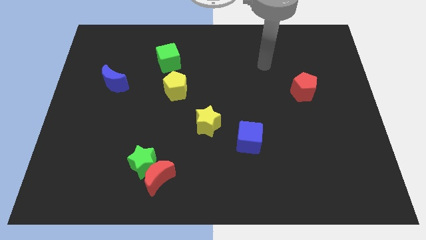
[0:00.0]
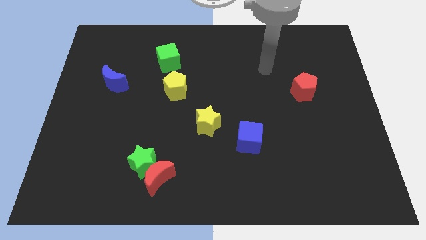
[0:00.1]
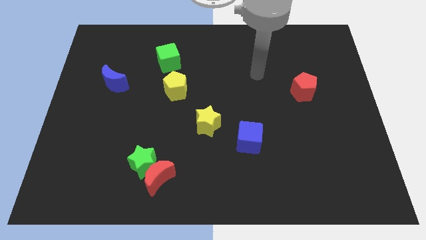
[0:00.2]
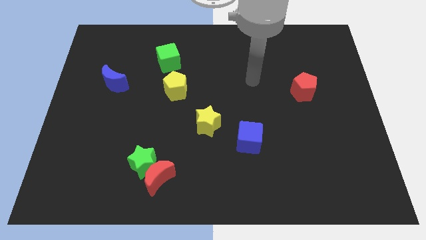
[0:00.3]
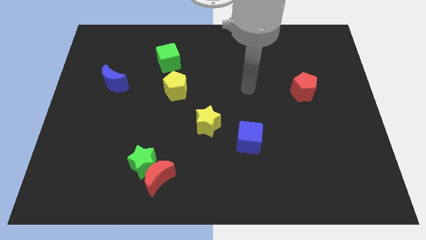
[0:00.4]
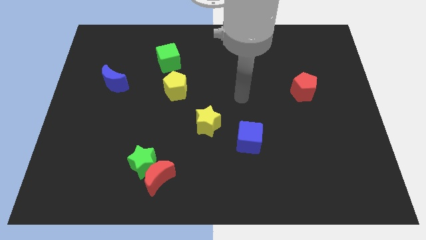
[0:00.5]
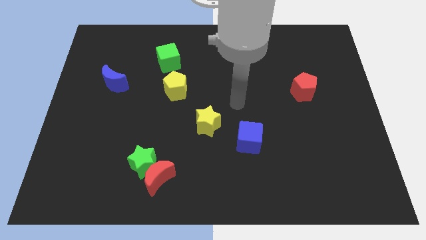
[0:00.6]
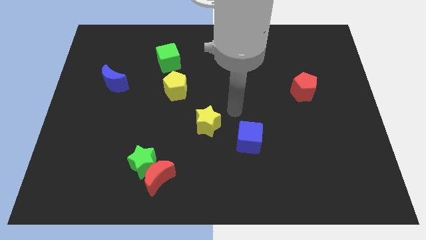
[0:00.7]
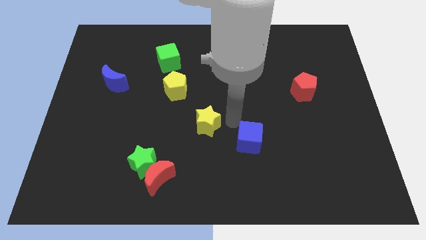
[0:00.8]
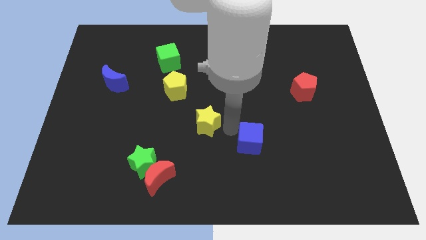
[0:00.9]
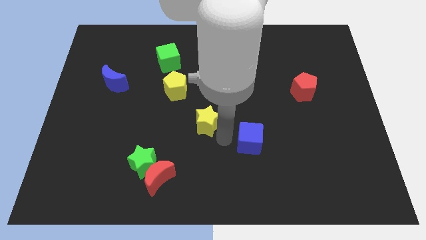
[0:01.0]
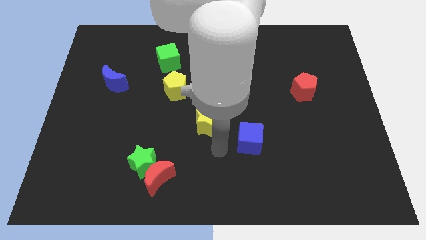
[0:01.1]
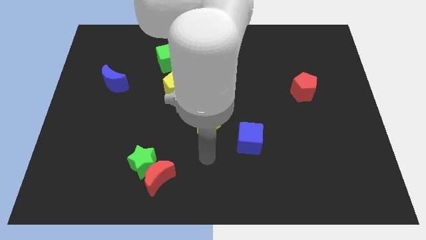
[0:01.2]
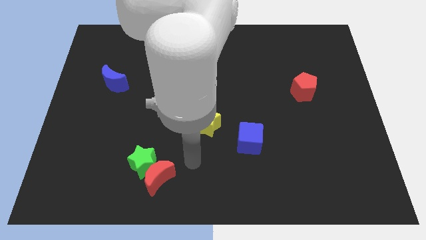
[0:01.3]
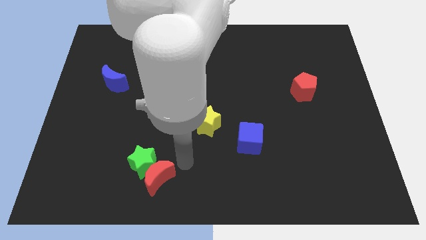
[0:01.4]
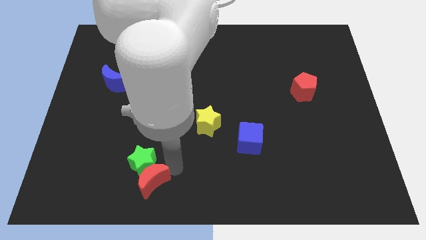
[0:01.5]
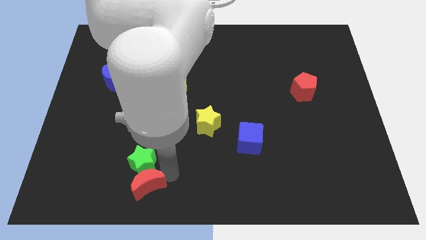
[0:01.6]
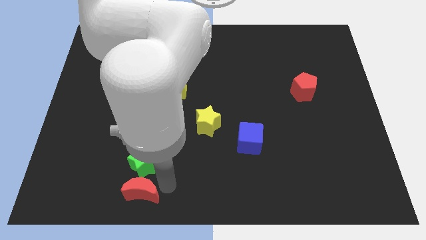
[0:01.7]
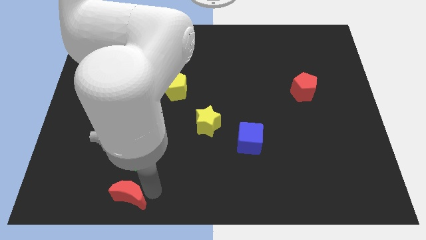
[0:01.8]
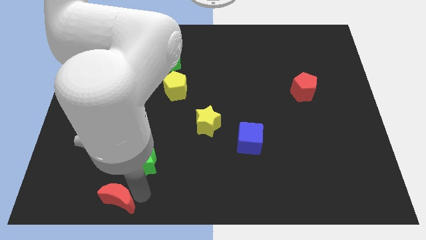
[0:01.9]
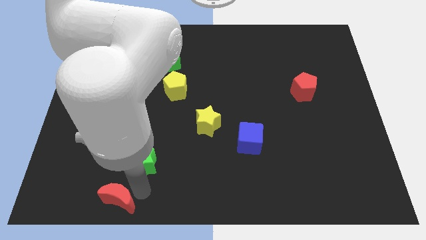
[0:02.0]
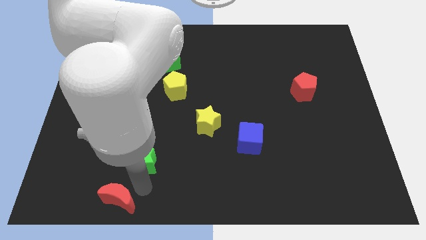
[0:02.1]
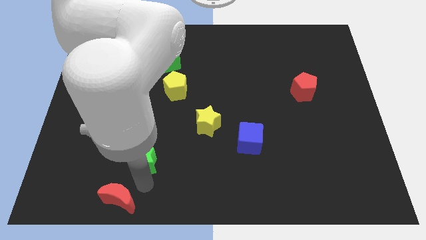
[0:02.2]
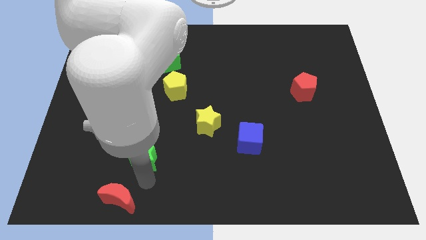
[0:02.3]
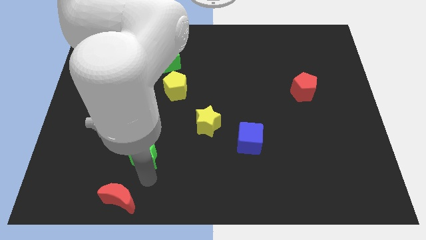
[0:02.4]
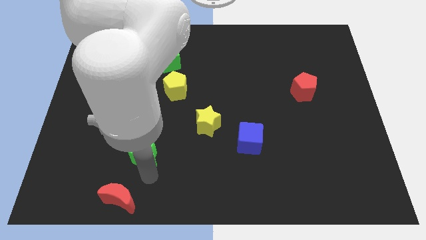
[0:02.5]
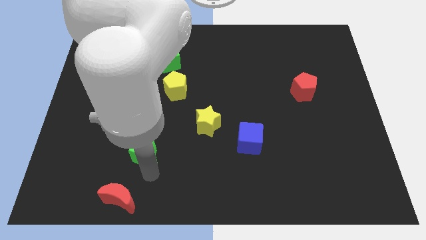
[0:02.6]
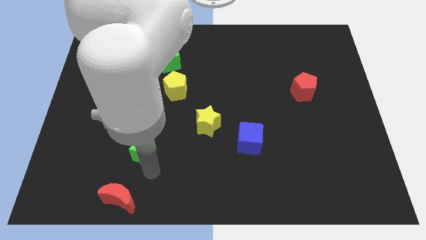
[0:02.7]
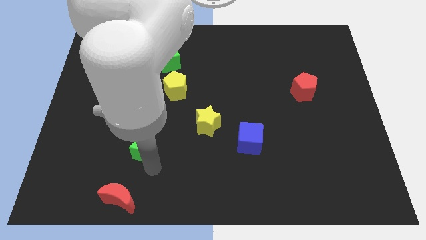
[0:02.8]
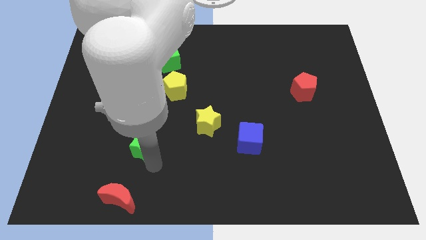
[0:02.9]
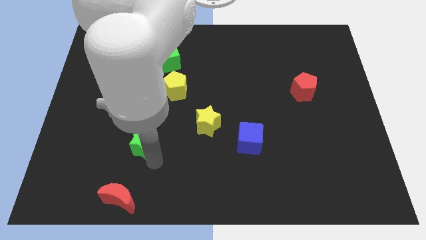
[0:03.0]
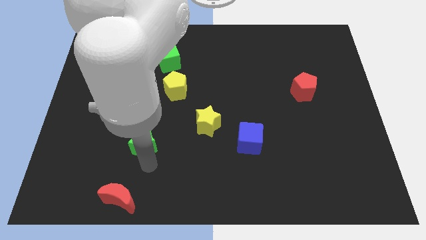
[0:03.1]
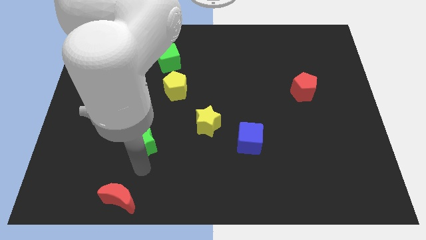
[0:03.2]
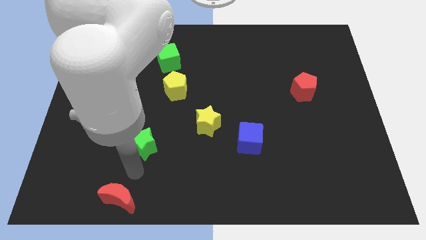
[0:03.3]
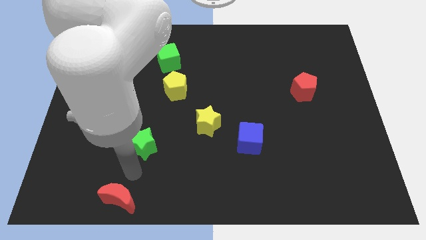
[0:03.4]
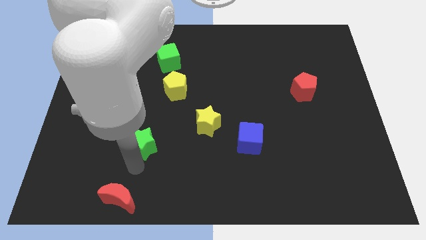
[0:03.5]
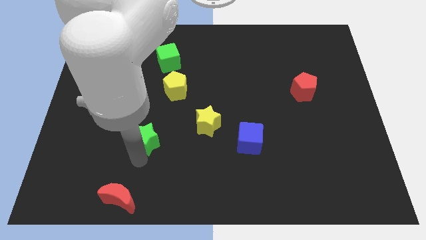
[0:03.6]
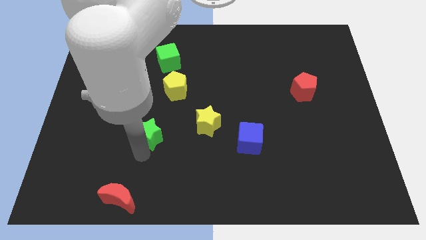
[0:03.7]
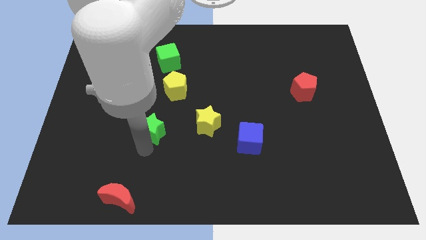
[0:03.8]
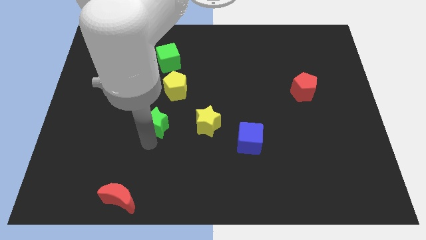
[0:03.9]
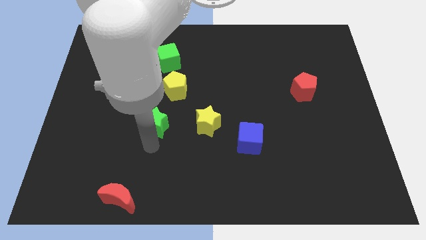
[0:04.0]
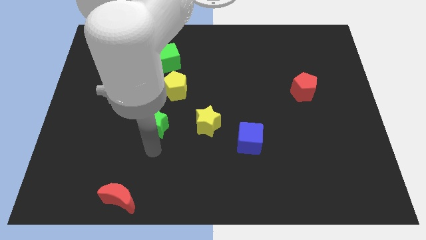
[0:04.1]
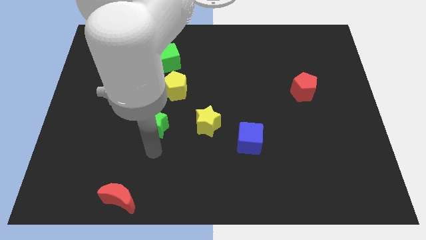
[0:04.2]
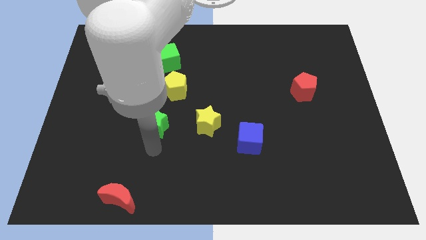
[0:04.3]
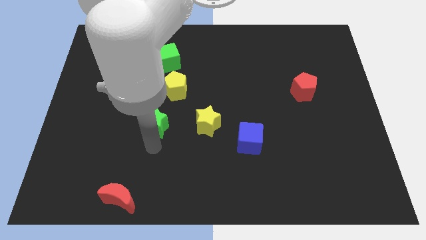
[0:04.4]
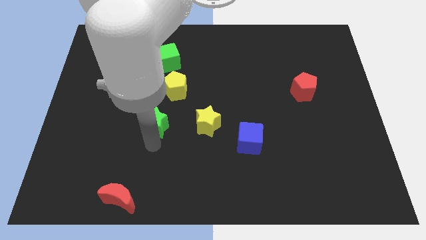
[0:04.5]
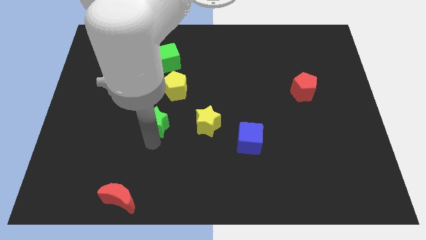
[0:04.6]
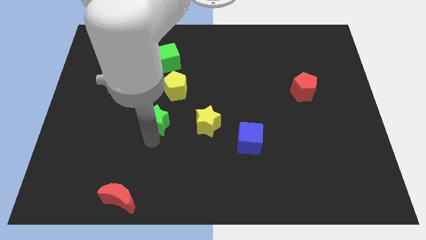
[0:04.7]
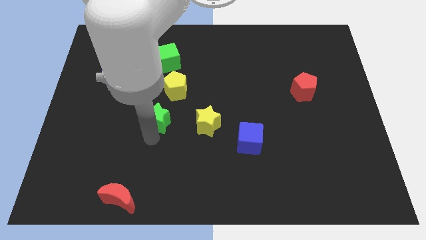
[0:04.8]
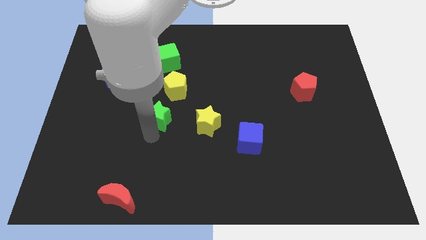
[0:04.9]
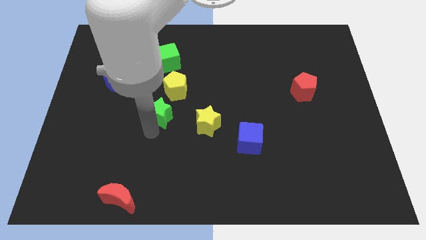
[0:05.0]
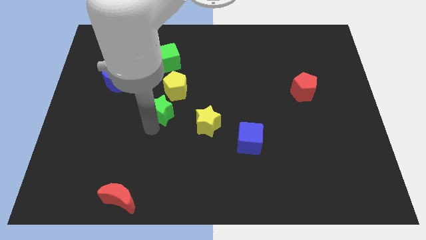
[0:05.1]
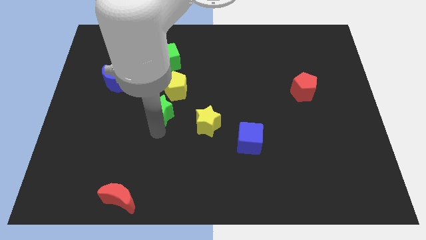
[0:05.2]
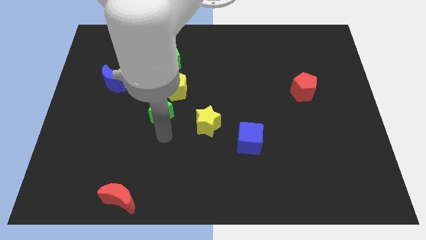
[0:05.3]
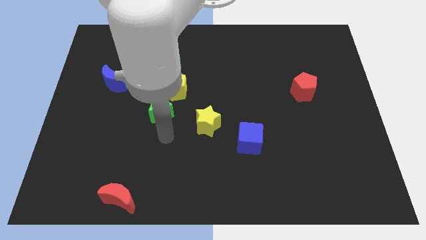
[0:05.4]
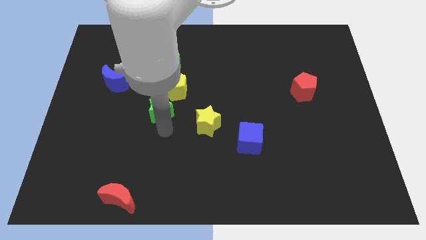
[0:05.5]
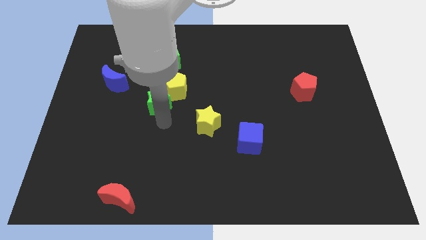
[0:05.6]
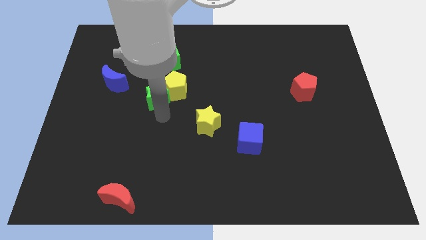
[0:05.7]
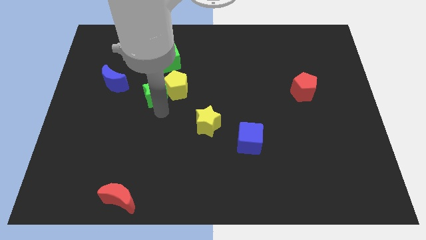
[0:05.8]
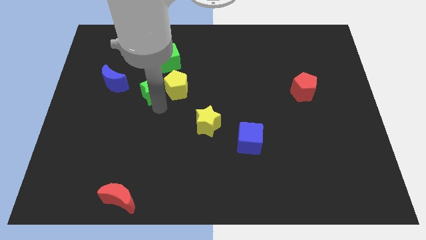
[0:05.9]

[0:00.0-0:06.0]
slide the green star to the top left of the yellow pentagon
